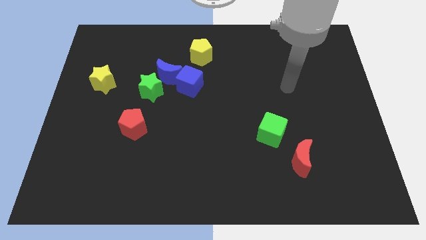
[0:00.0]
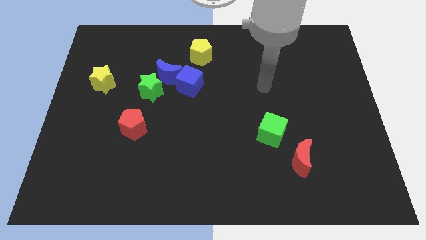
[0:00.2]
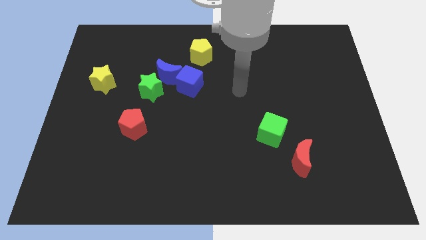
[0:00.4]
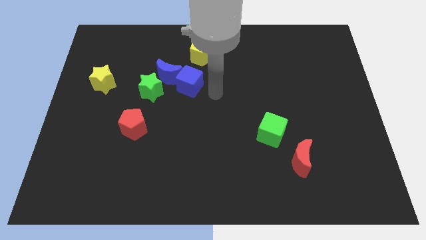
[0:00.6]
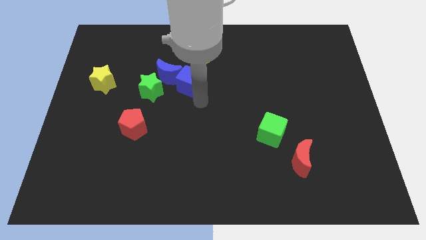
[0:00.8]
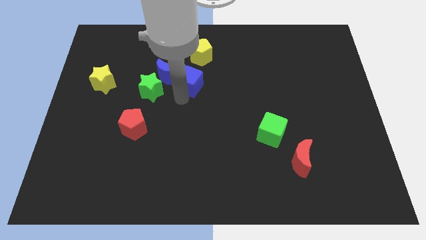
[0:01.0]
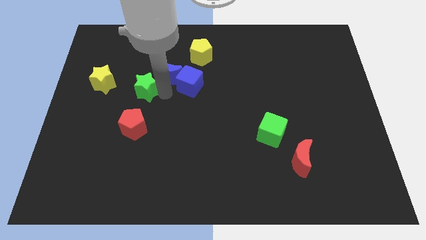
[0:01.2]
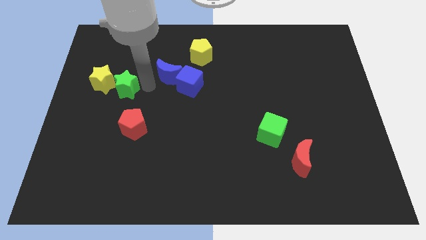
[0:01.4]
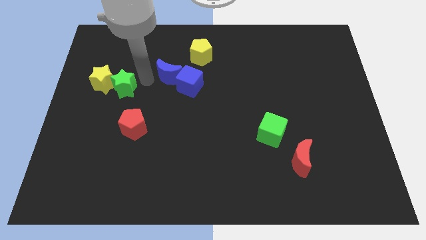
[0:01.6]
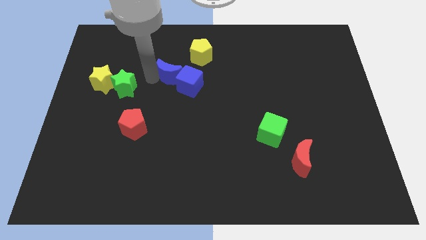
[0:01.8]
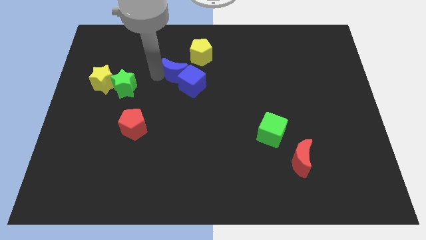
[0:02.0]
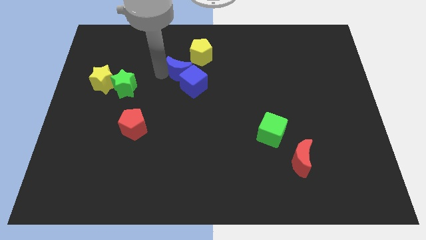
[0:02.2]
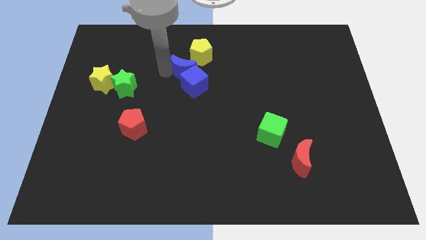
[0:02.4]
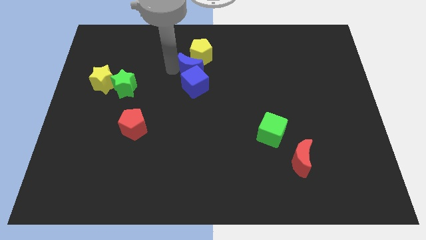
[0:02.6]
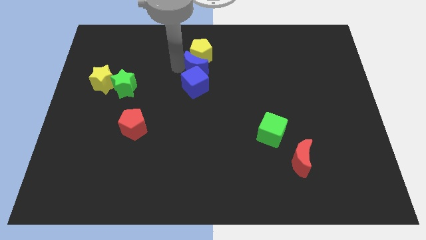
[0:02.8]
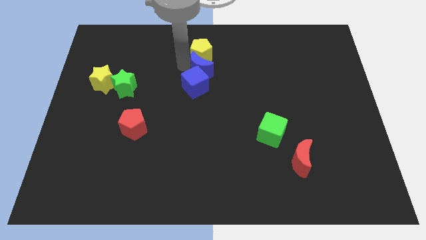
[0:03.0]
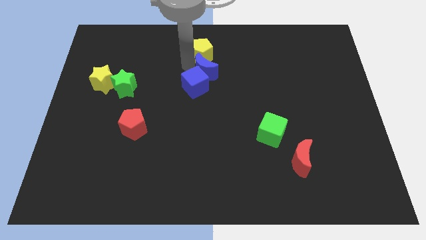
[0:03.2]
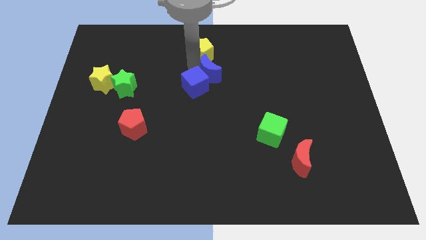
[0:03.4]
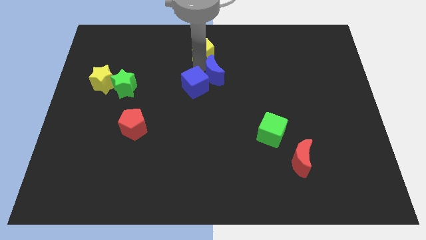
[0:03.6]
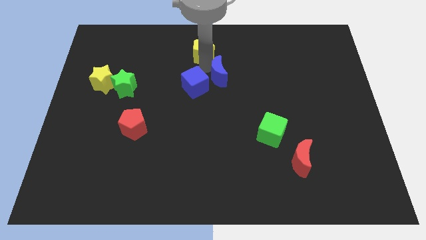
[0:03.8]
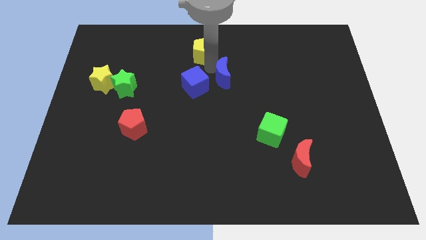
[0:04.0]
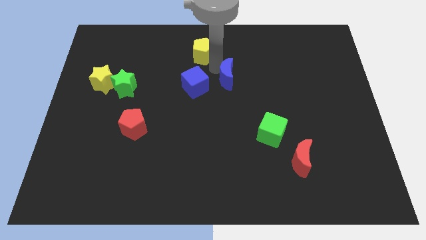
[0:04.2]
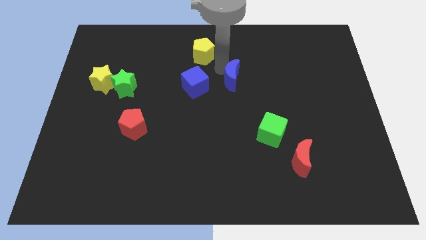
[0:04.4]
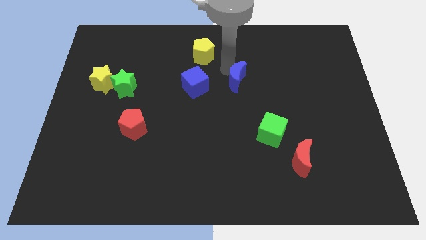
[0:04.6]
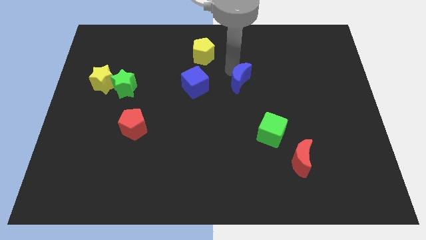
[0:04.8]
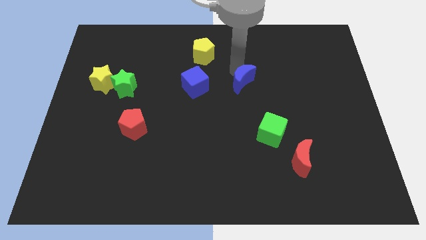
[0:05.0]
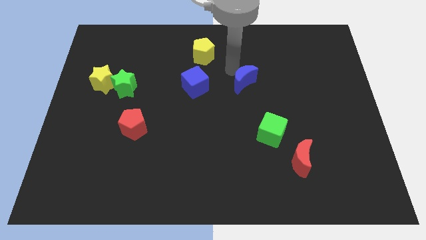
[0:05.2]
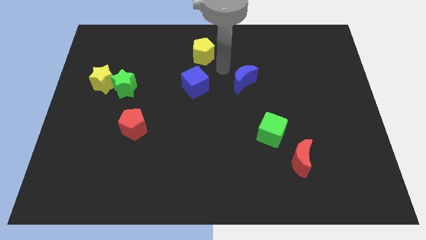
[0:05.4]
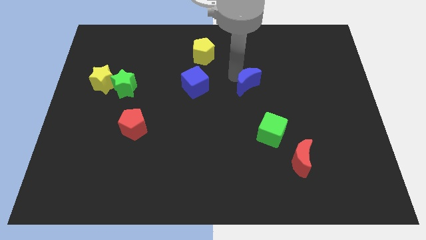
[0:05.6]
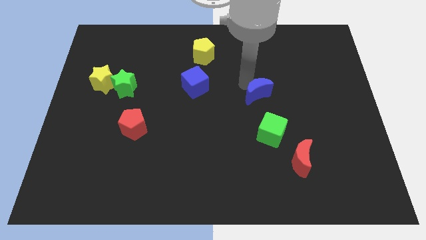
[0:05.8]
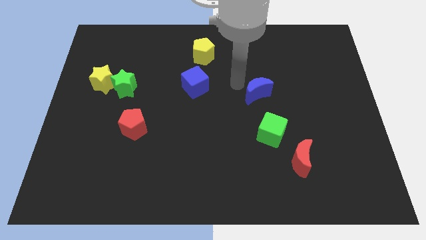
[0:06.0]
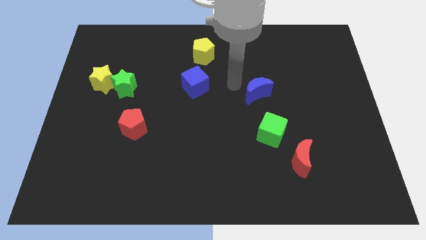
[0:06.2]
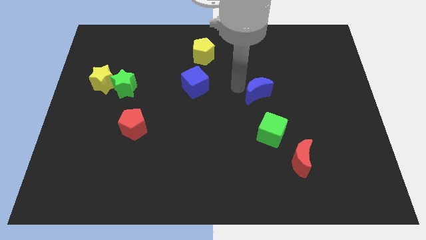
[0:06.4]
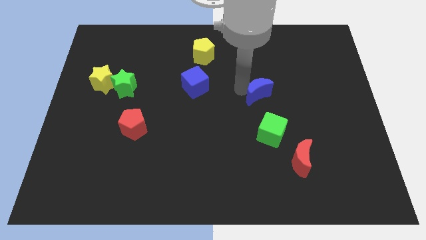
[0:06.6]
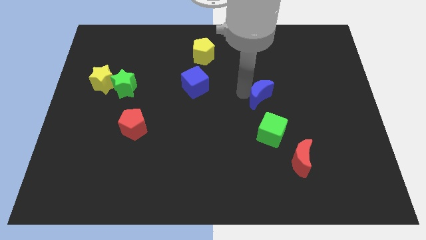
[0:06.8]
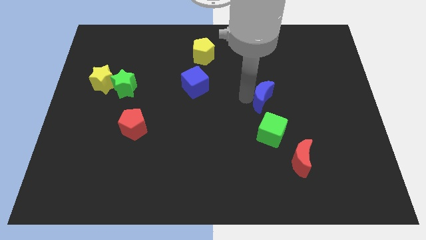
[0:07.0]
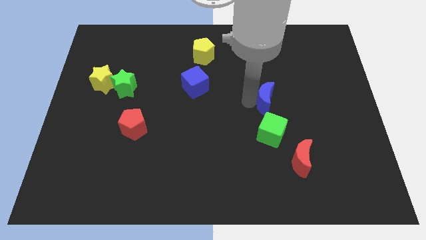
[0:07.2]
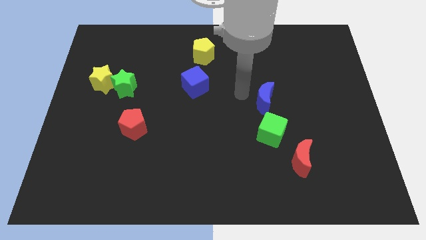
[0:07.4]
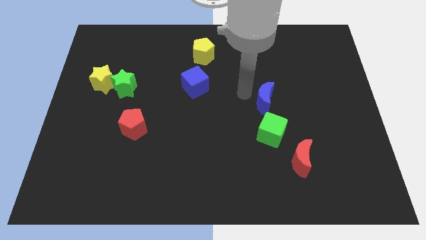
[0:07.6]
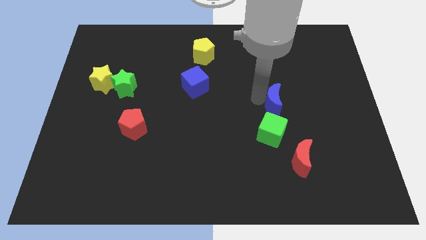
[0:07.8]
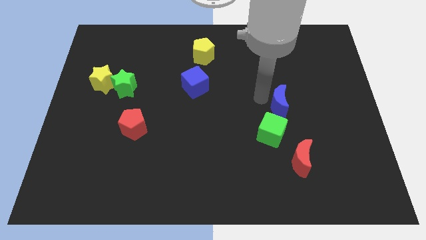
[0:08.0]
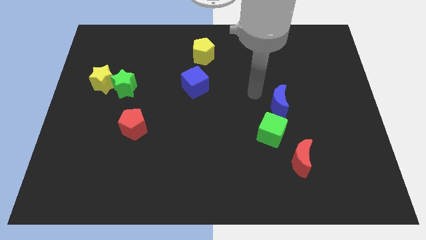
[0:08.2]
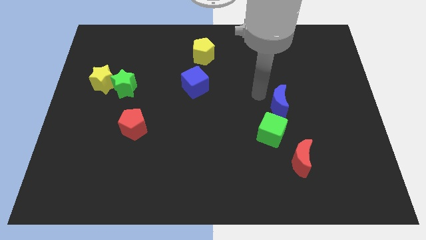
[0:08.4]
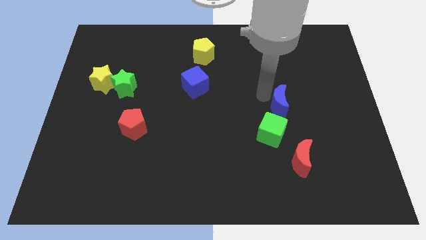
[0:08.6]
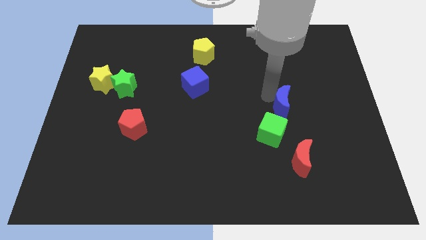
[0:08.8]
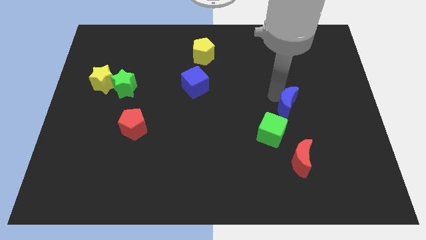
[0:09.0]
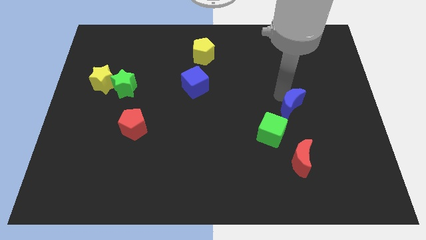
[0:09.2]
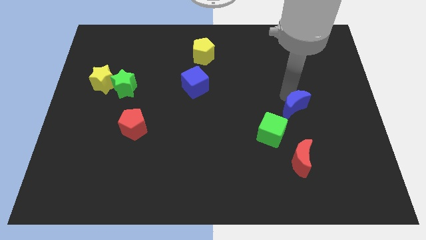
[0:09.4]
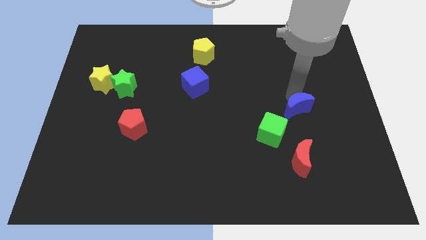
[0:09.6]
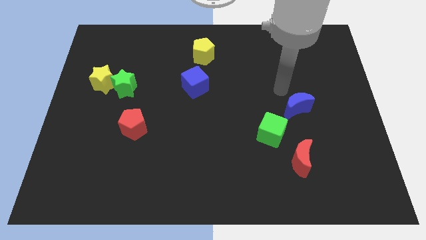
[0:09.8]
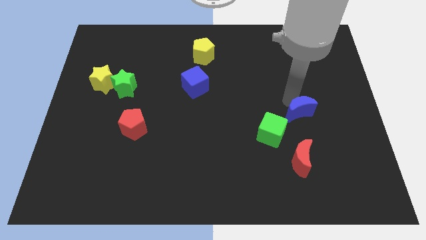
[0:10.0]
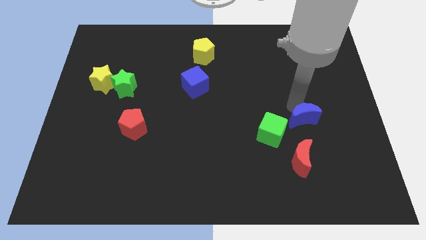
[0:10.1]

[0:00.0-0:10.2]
put the blue moon to the right of the green cube

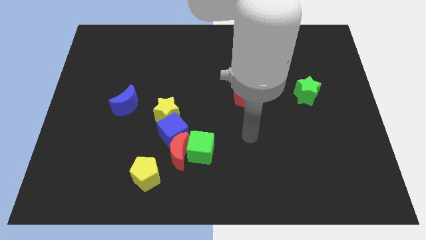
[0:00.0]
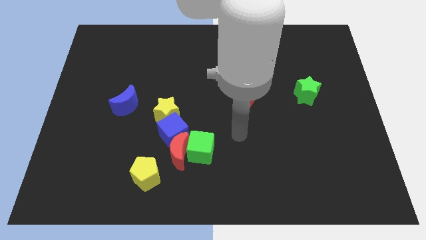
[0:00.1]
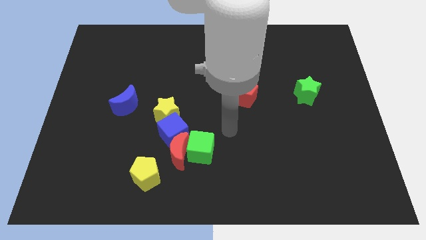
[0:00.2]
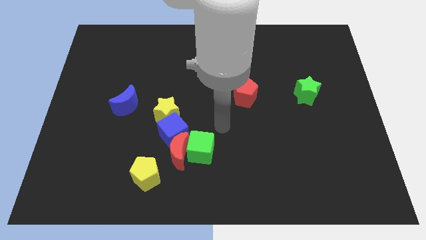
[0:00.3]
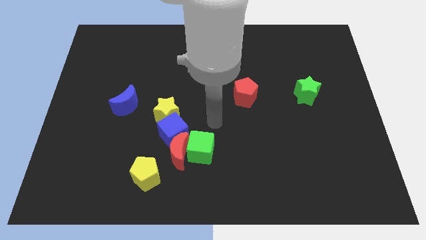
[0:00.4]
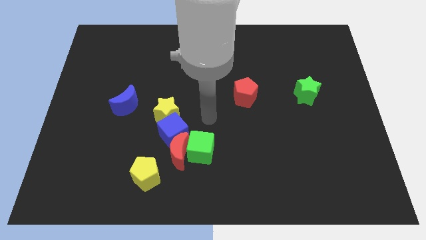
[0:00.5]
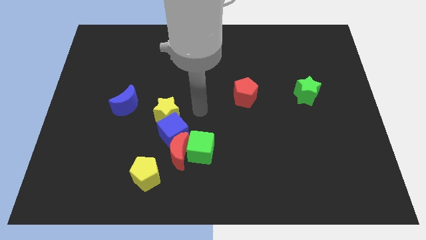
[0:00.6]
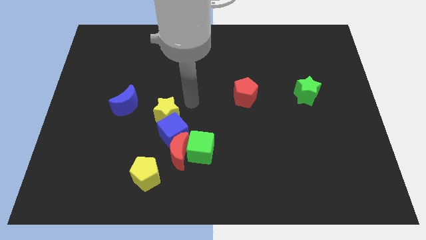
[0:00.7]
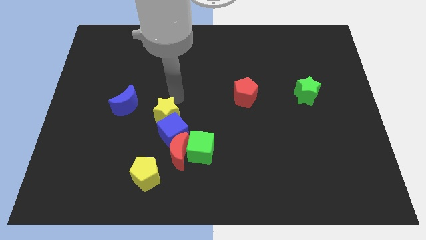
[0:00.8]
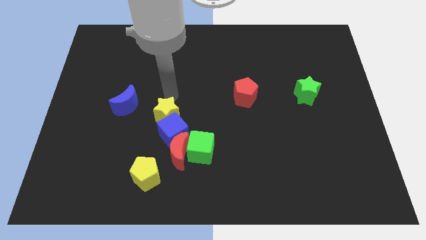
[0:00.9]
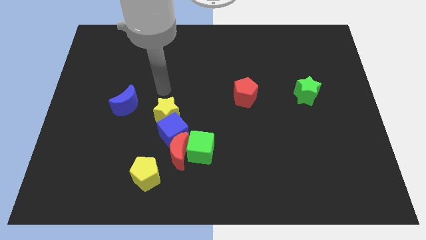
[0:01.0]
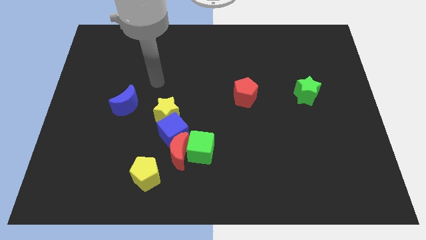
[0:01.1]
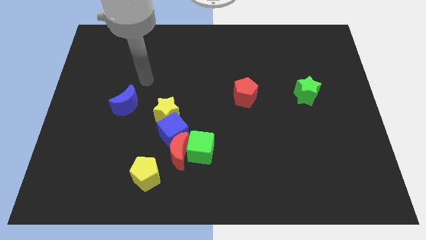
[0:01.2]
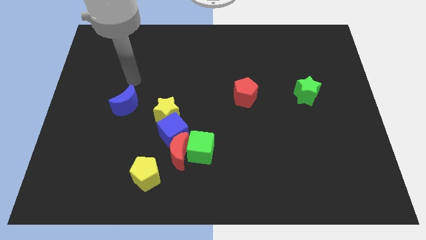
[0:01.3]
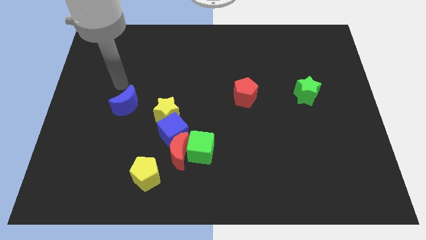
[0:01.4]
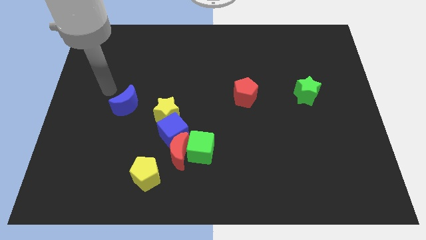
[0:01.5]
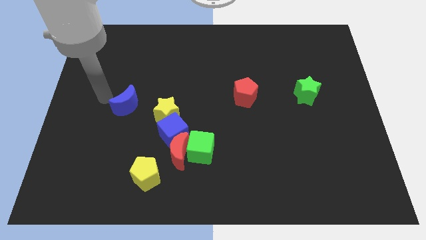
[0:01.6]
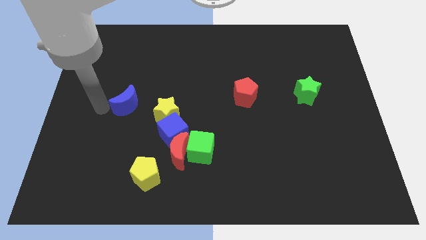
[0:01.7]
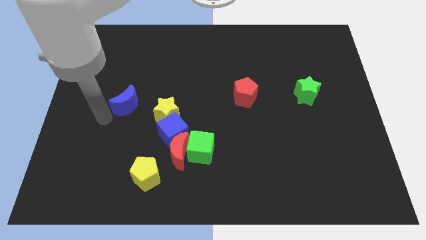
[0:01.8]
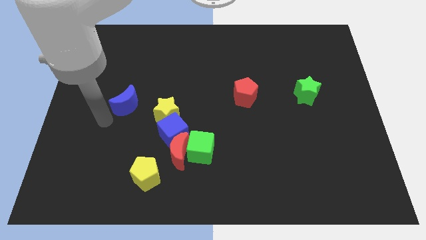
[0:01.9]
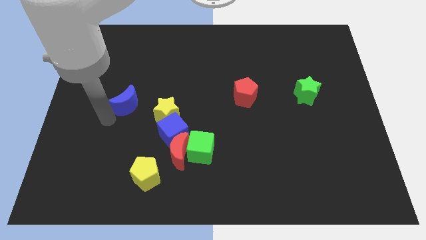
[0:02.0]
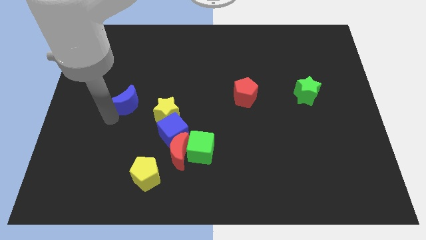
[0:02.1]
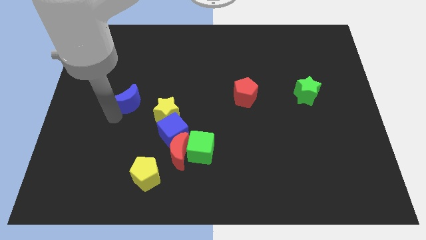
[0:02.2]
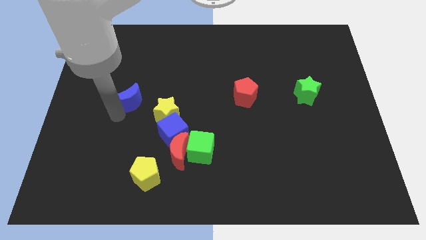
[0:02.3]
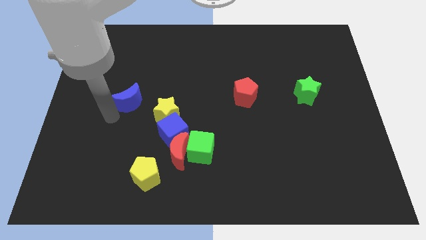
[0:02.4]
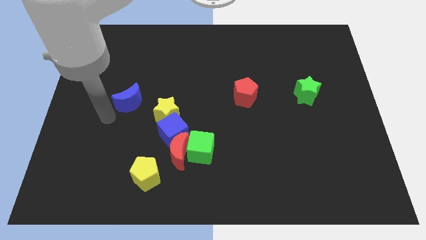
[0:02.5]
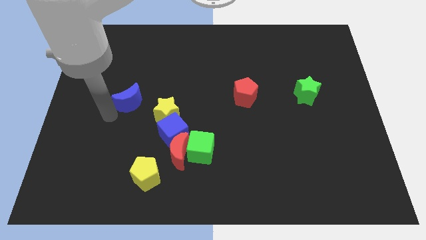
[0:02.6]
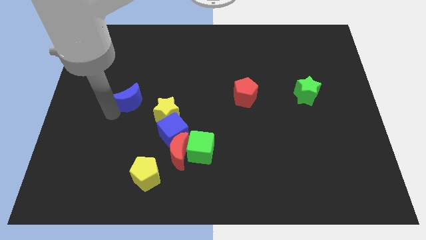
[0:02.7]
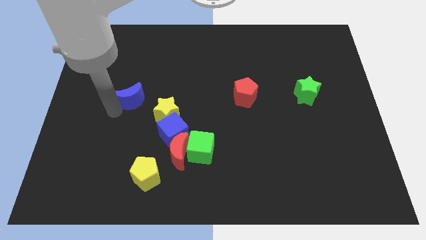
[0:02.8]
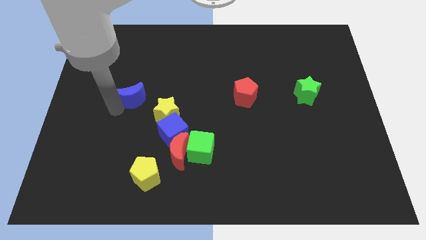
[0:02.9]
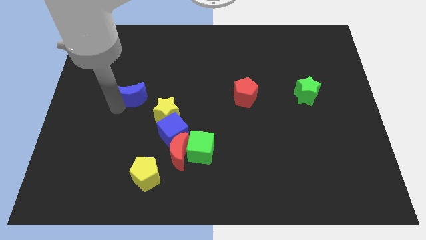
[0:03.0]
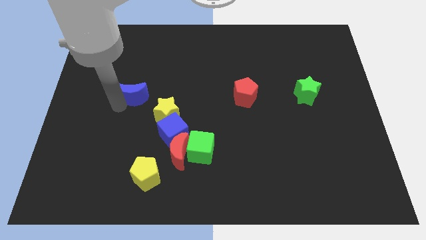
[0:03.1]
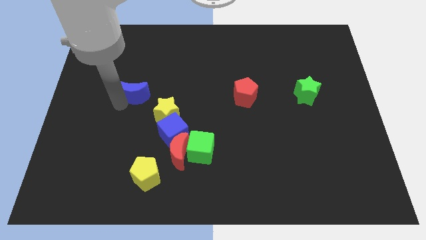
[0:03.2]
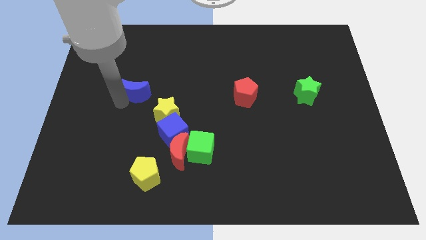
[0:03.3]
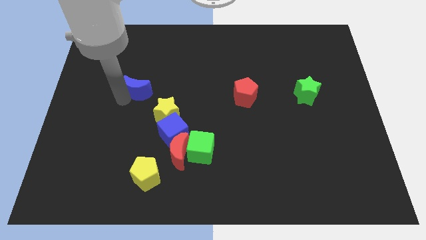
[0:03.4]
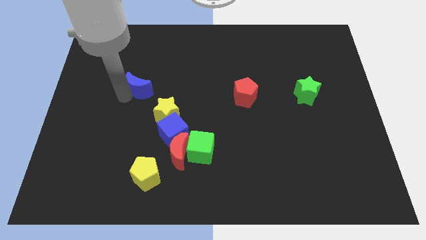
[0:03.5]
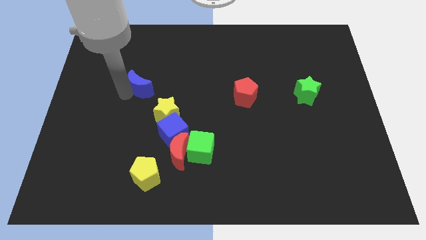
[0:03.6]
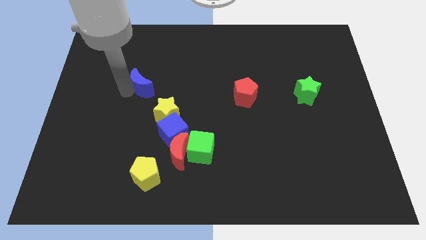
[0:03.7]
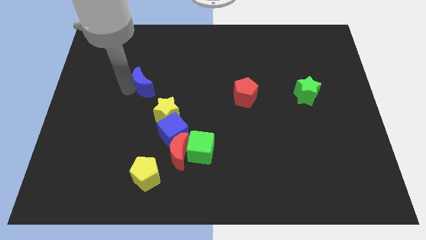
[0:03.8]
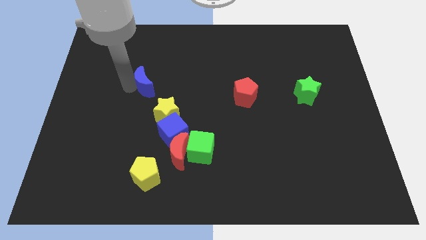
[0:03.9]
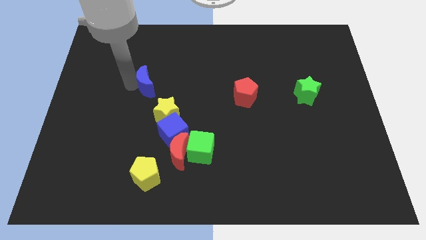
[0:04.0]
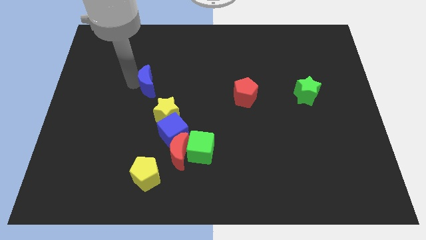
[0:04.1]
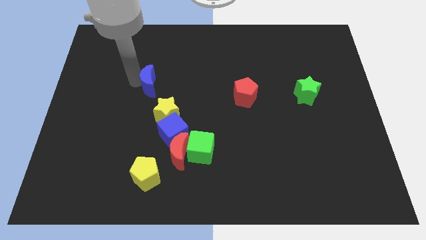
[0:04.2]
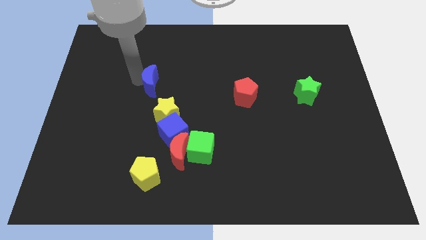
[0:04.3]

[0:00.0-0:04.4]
slide the blue moon above the yellow star
